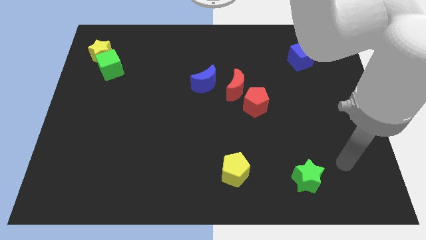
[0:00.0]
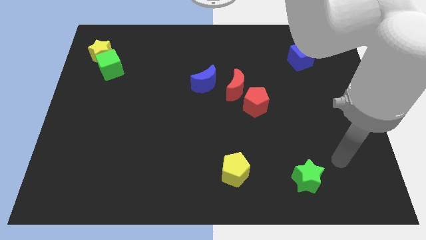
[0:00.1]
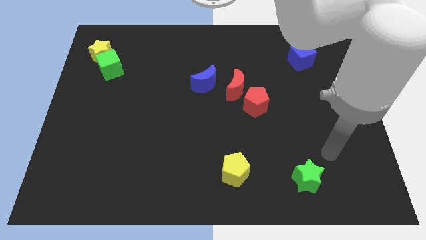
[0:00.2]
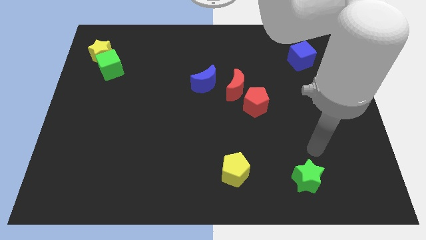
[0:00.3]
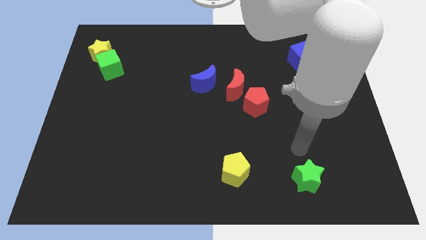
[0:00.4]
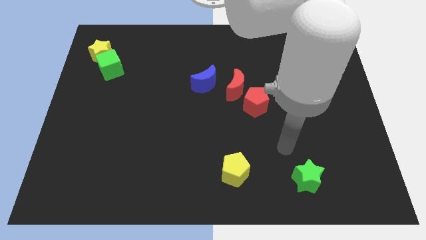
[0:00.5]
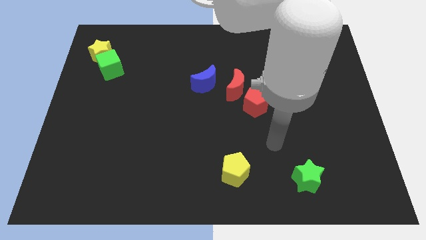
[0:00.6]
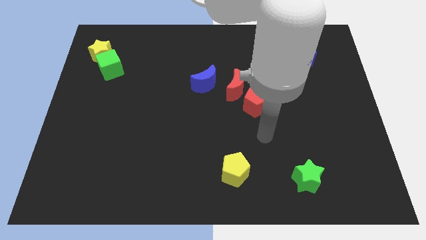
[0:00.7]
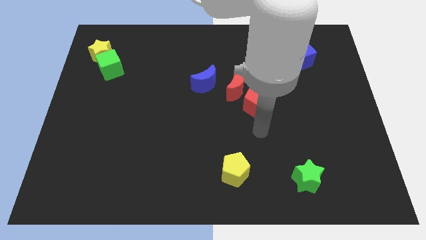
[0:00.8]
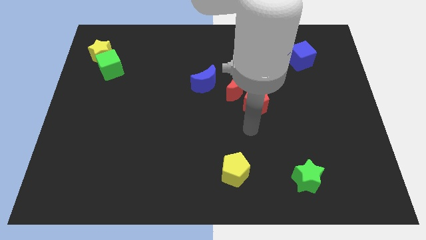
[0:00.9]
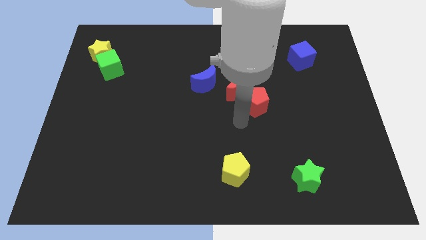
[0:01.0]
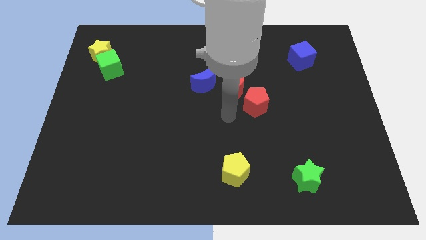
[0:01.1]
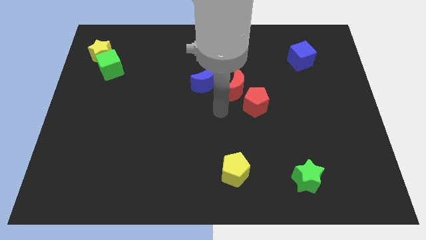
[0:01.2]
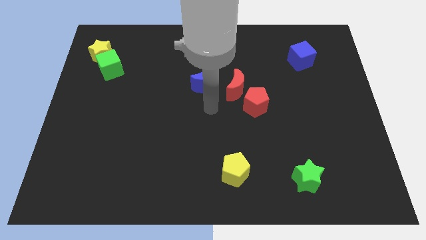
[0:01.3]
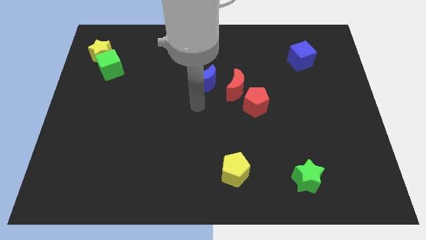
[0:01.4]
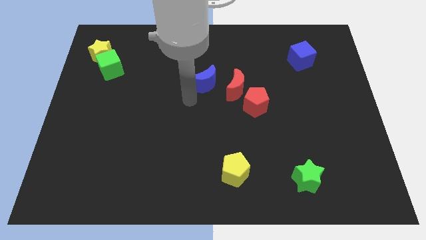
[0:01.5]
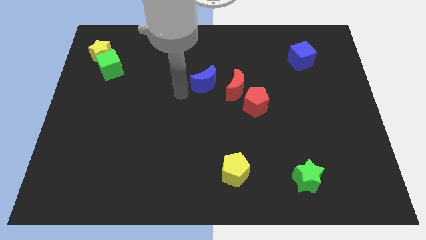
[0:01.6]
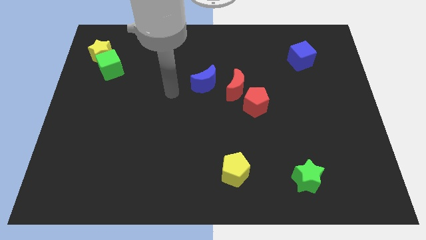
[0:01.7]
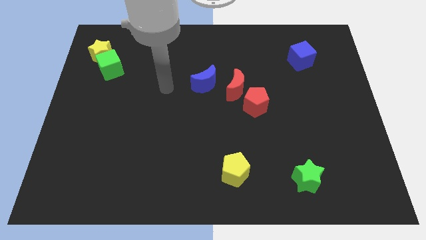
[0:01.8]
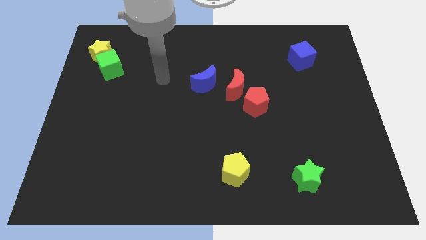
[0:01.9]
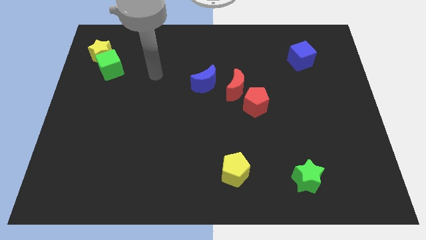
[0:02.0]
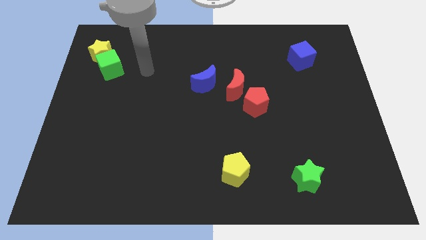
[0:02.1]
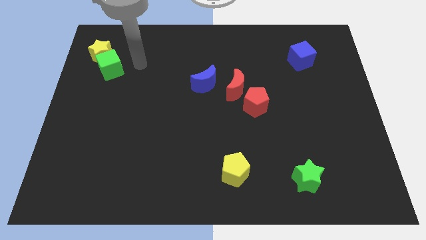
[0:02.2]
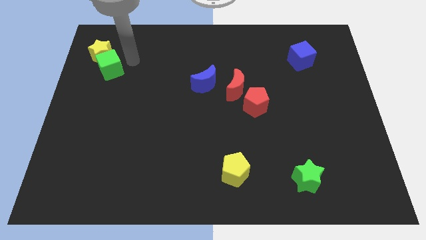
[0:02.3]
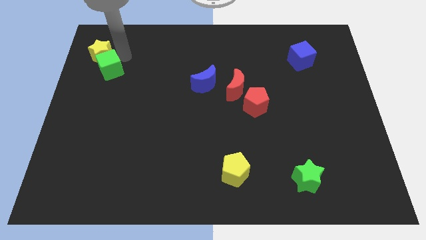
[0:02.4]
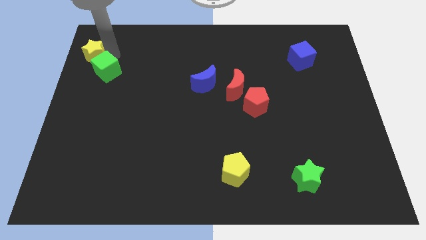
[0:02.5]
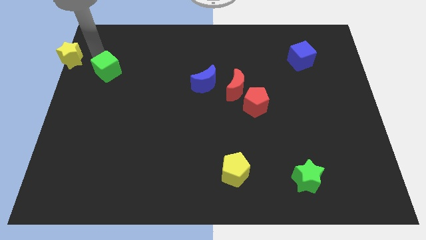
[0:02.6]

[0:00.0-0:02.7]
move the green cube away from the yellow star

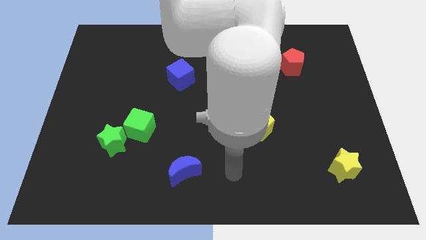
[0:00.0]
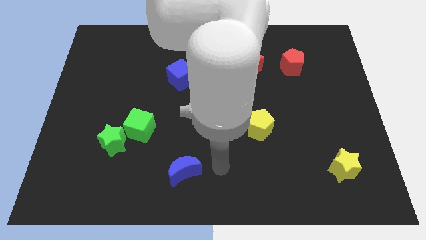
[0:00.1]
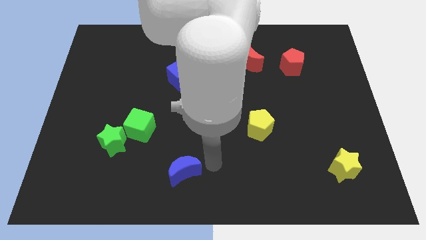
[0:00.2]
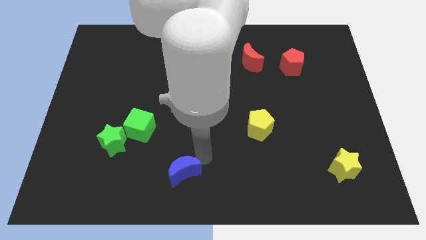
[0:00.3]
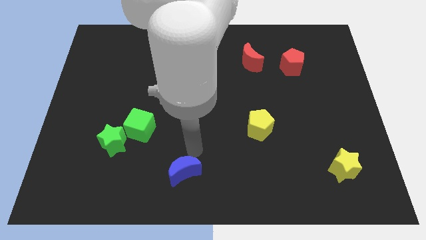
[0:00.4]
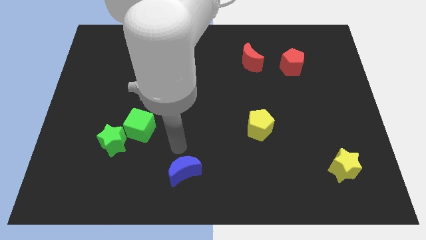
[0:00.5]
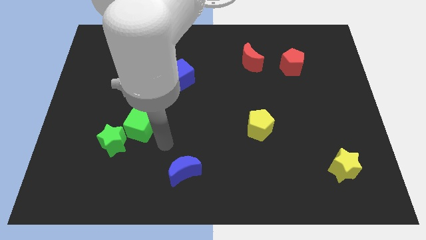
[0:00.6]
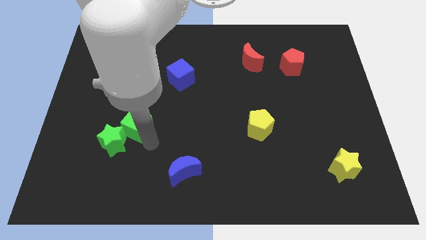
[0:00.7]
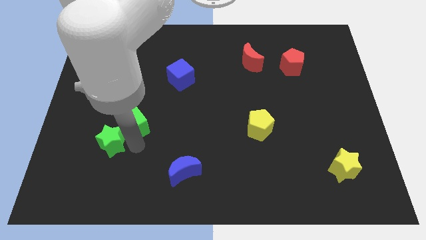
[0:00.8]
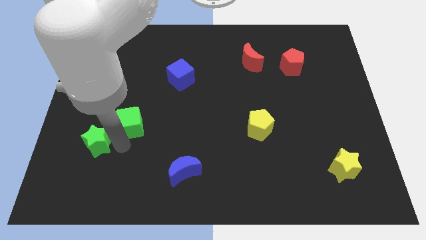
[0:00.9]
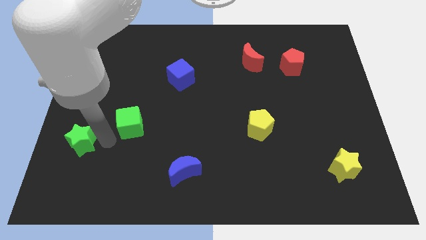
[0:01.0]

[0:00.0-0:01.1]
separate the green cube from the green star

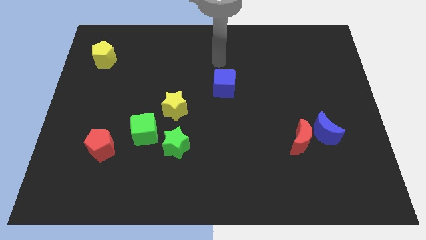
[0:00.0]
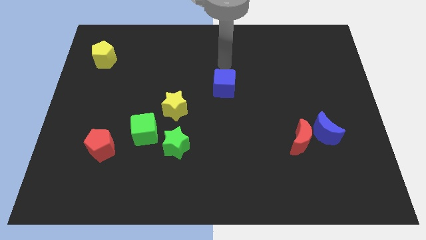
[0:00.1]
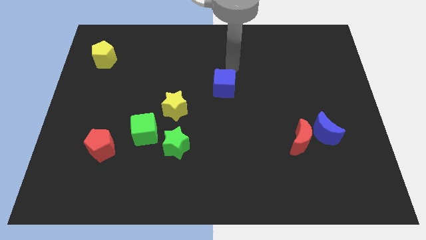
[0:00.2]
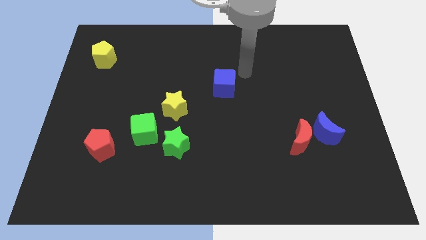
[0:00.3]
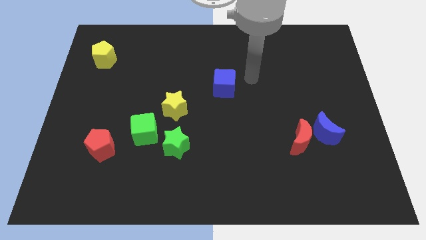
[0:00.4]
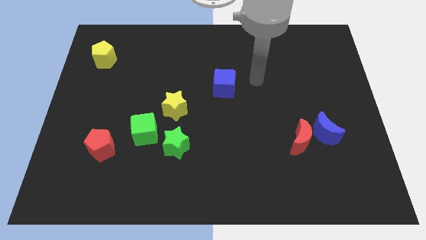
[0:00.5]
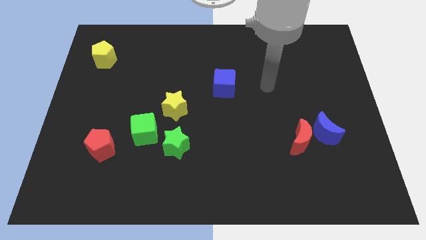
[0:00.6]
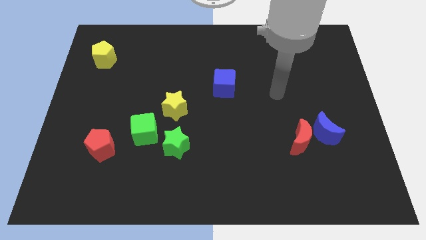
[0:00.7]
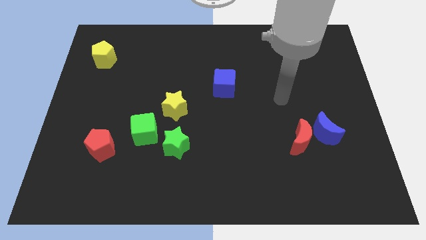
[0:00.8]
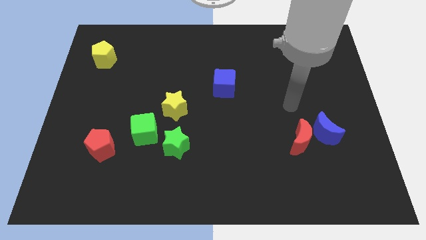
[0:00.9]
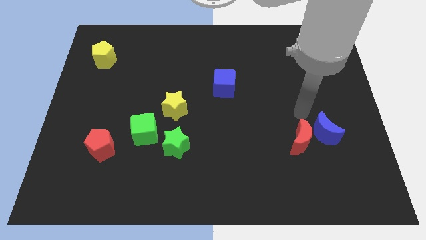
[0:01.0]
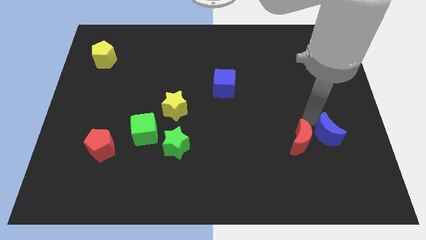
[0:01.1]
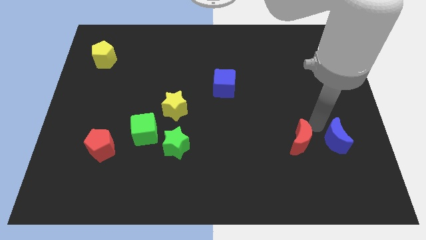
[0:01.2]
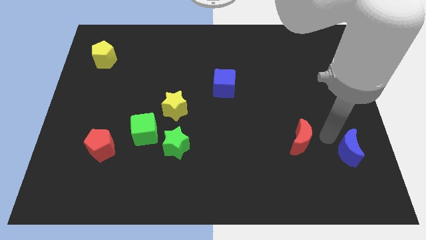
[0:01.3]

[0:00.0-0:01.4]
pull the red moon apart from the blue moon

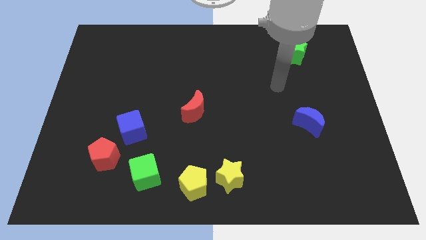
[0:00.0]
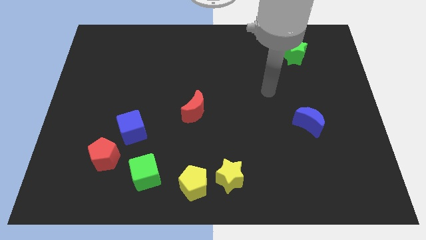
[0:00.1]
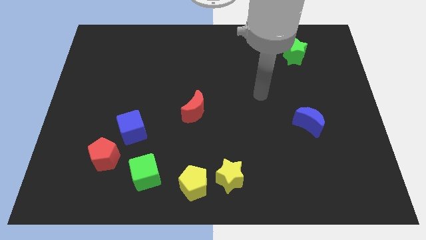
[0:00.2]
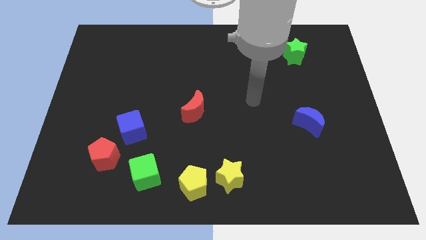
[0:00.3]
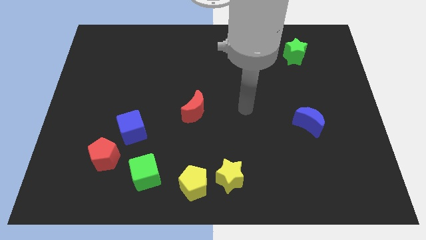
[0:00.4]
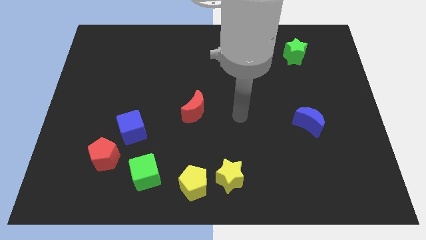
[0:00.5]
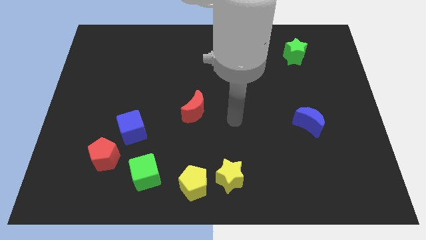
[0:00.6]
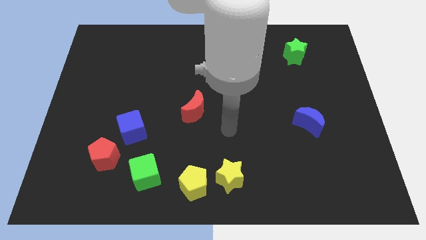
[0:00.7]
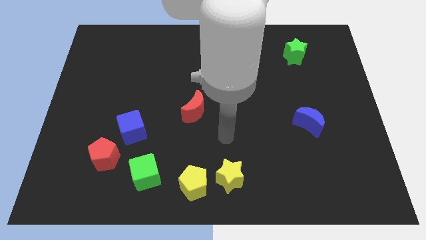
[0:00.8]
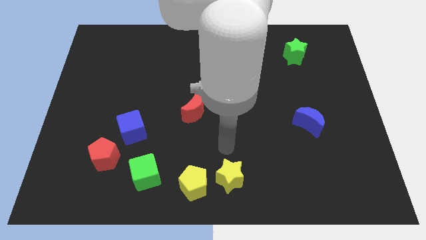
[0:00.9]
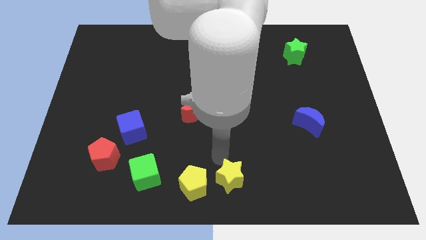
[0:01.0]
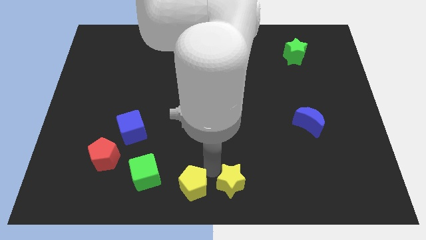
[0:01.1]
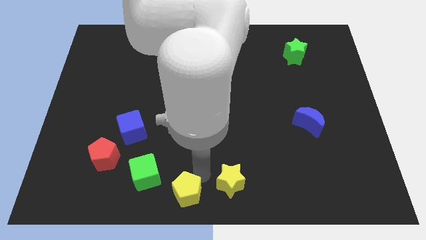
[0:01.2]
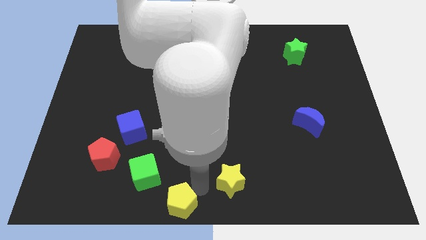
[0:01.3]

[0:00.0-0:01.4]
move the yellow star away from the yellow pentagon

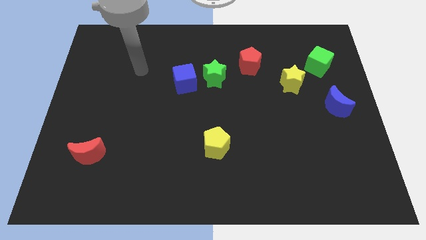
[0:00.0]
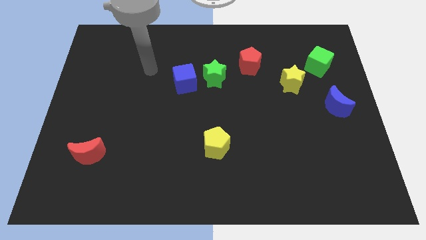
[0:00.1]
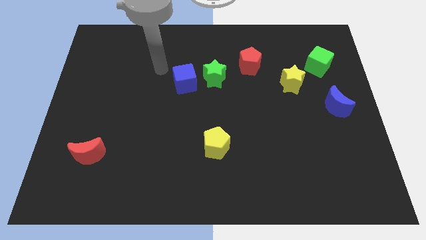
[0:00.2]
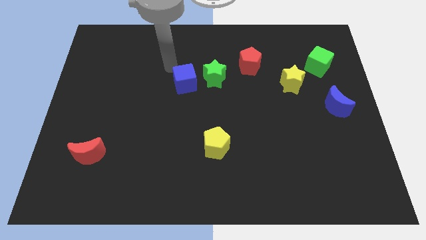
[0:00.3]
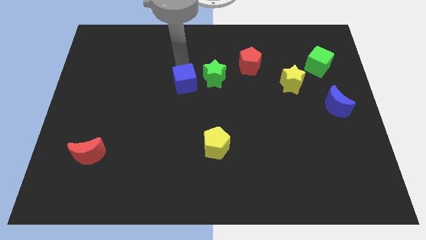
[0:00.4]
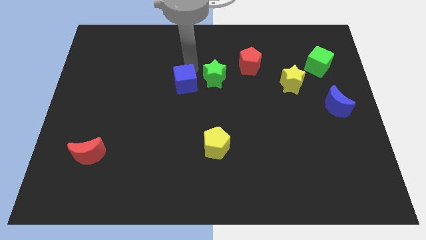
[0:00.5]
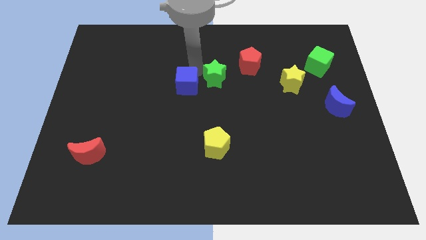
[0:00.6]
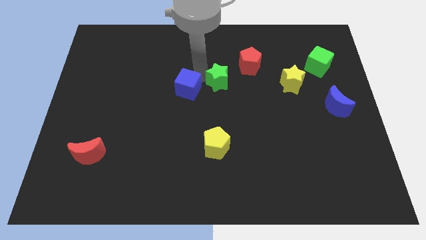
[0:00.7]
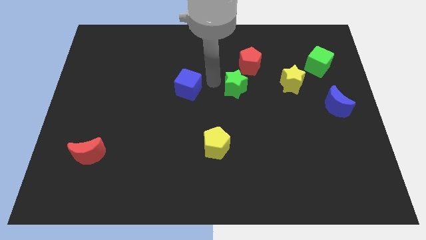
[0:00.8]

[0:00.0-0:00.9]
separate the blue cube from the green star

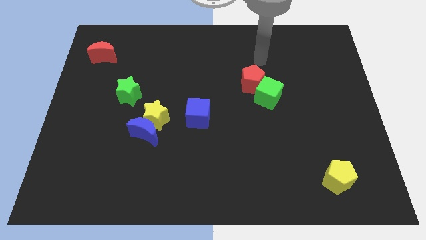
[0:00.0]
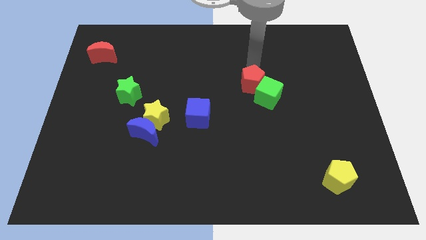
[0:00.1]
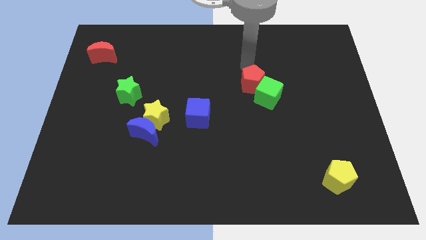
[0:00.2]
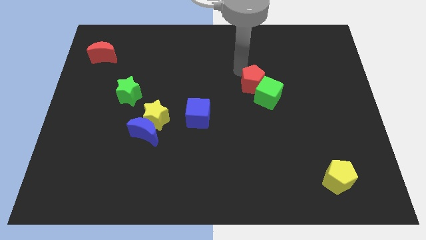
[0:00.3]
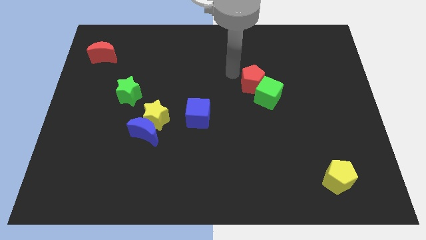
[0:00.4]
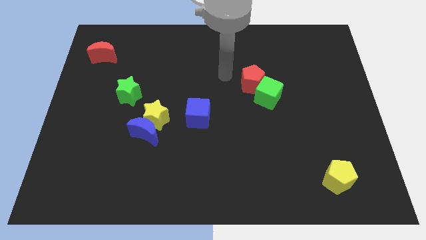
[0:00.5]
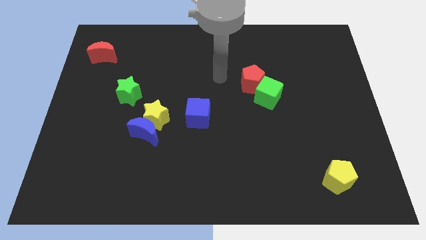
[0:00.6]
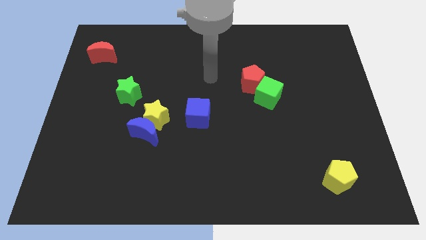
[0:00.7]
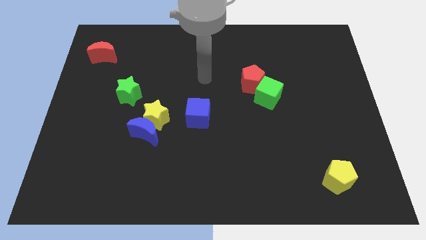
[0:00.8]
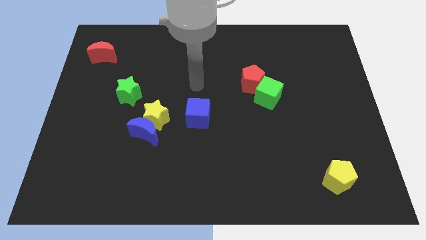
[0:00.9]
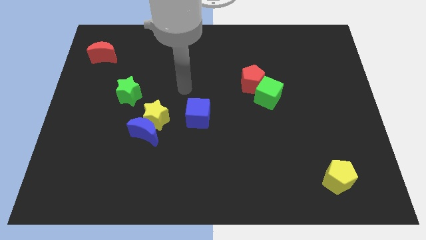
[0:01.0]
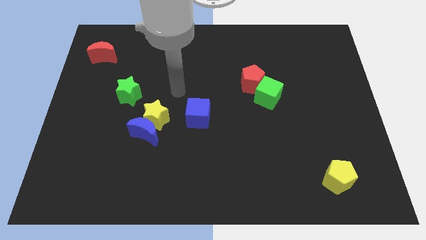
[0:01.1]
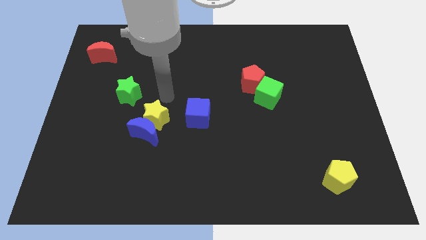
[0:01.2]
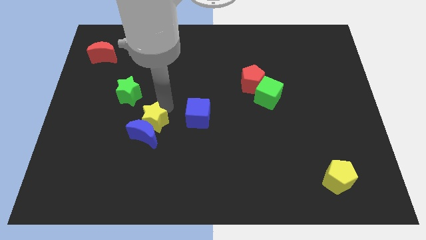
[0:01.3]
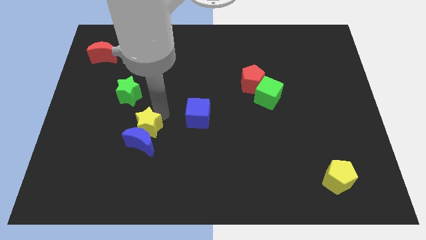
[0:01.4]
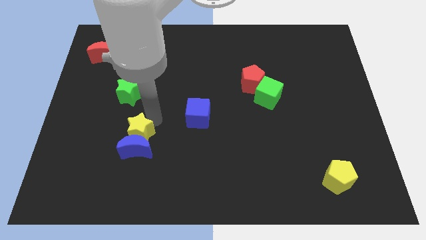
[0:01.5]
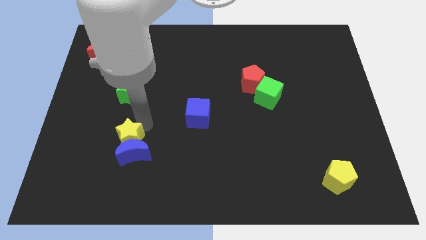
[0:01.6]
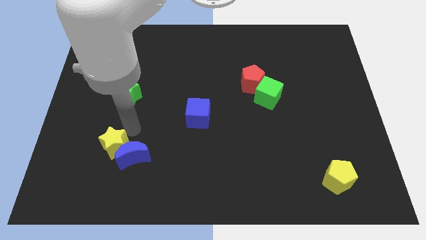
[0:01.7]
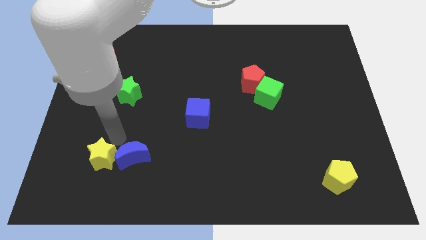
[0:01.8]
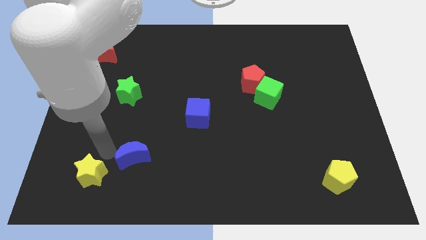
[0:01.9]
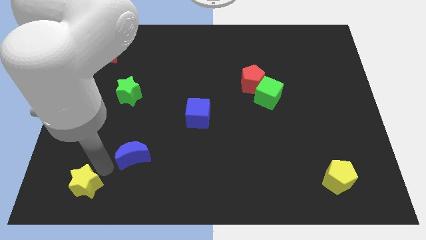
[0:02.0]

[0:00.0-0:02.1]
pull the blue moon apart from the yellow star
